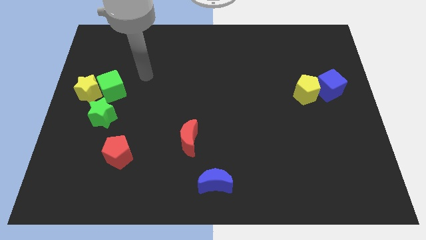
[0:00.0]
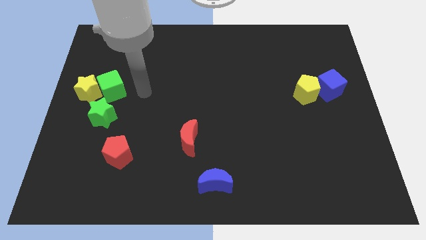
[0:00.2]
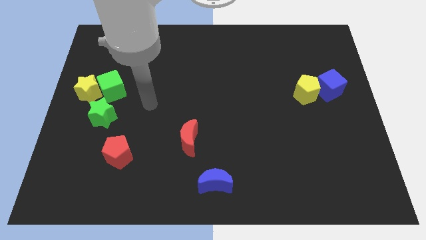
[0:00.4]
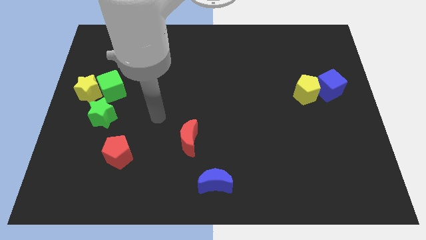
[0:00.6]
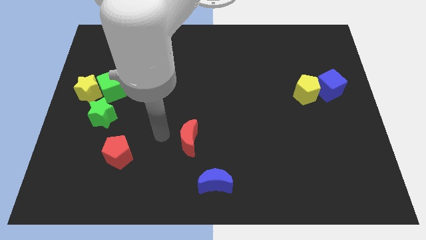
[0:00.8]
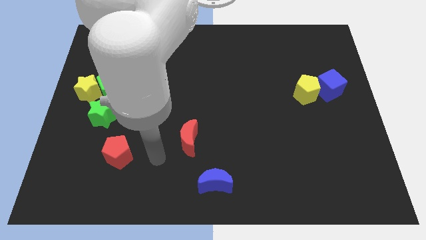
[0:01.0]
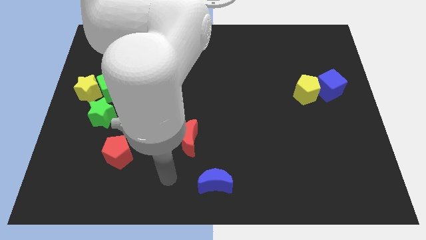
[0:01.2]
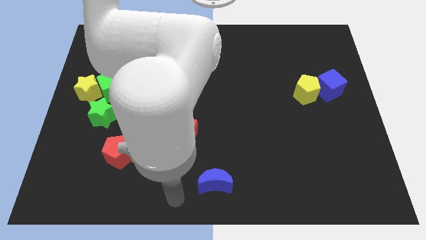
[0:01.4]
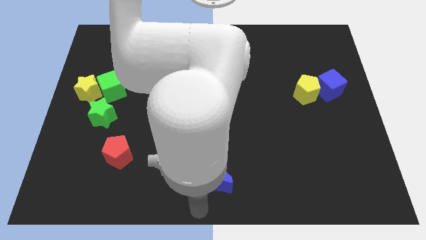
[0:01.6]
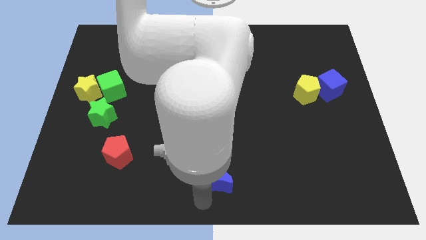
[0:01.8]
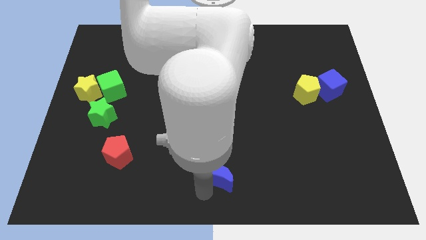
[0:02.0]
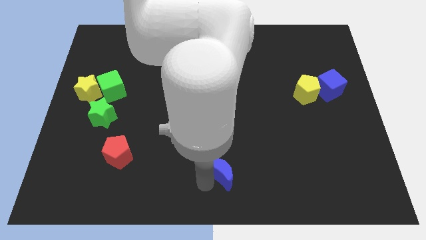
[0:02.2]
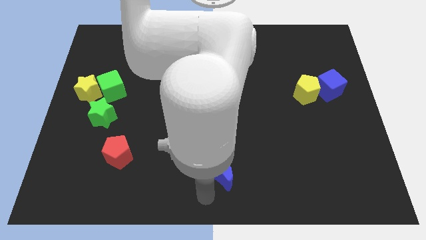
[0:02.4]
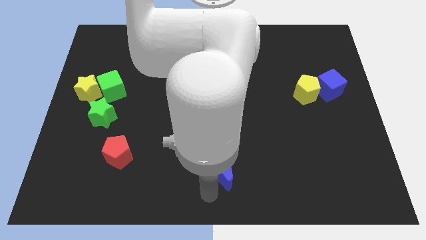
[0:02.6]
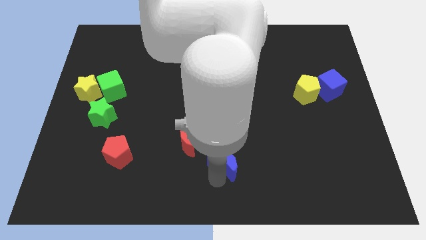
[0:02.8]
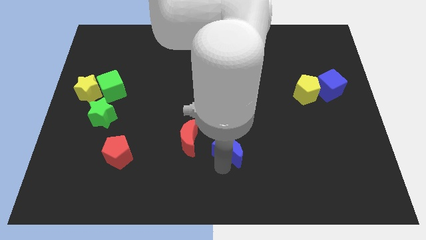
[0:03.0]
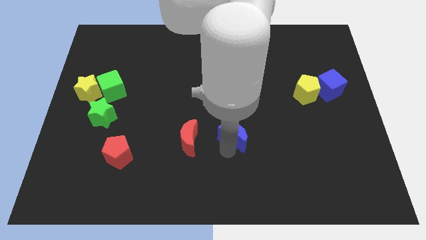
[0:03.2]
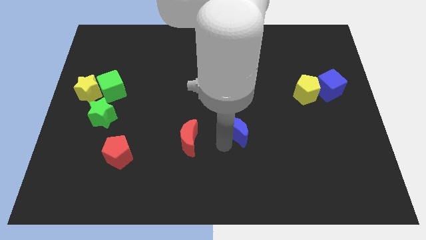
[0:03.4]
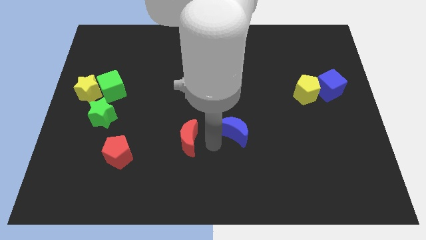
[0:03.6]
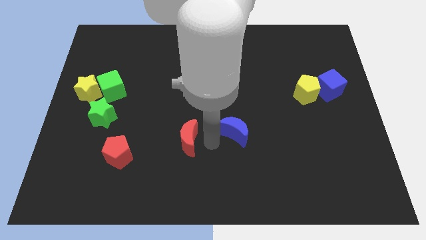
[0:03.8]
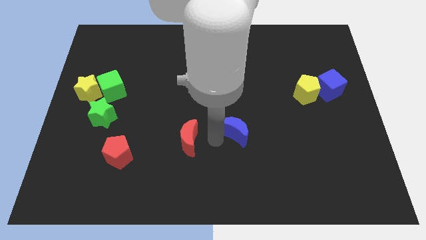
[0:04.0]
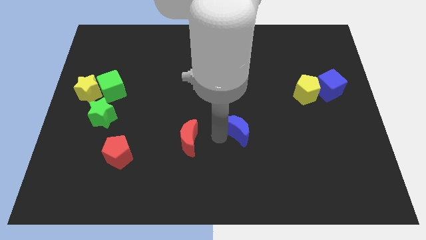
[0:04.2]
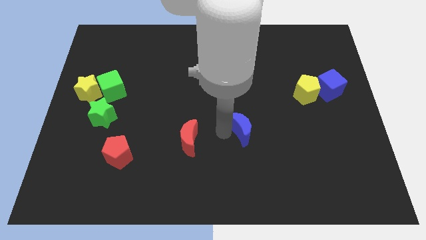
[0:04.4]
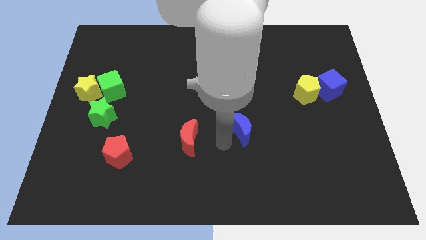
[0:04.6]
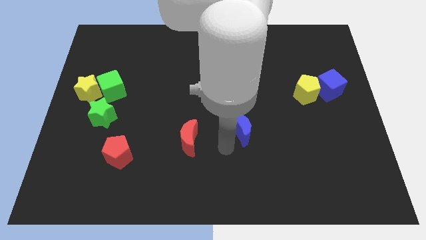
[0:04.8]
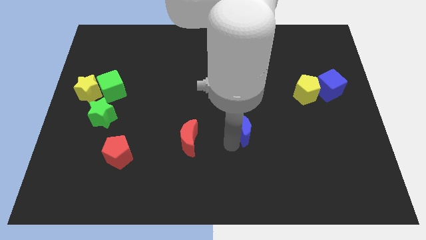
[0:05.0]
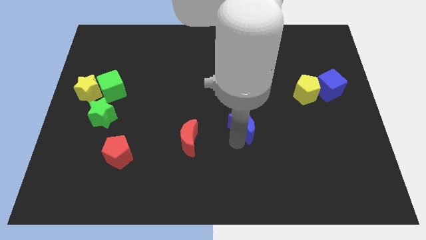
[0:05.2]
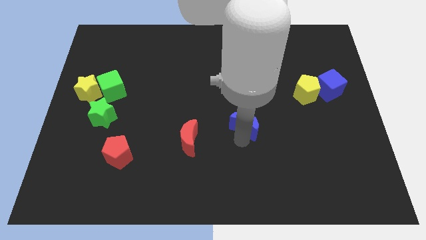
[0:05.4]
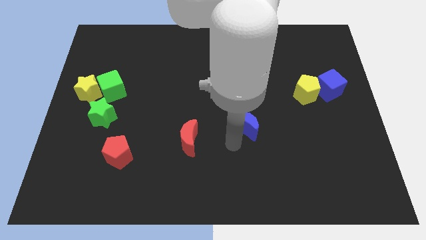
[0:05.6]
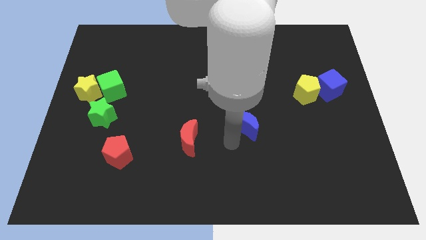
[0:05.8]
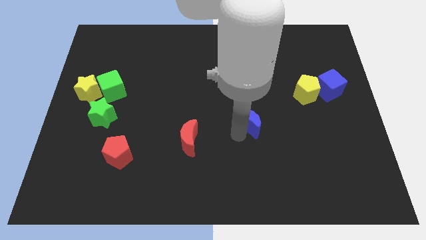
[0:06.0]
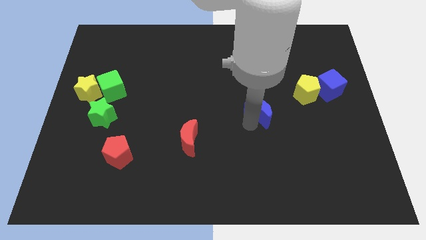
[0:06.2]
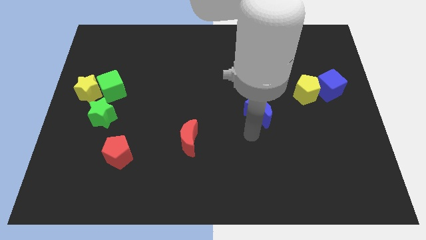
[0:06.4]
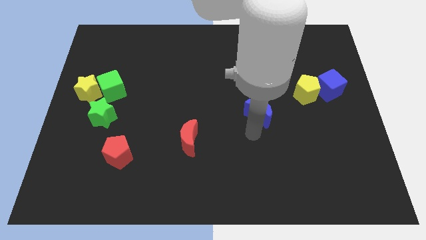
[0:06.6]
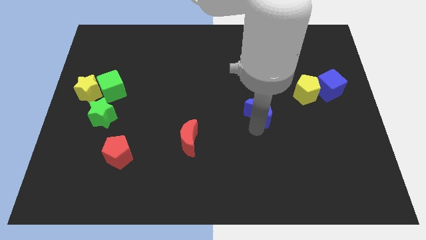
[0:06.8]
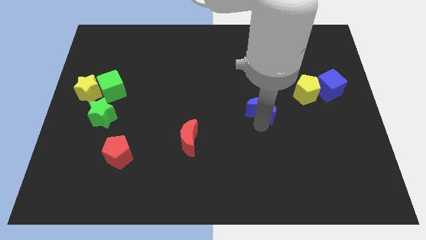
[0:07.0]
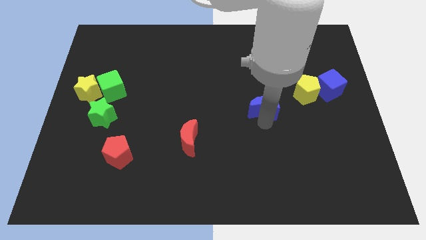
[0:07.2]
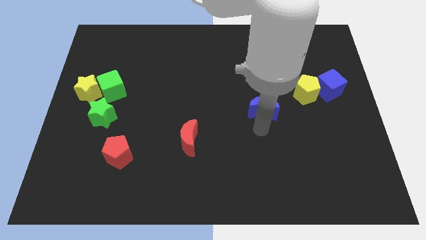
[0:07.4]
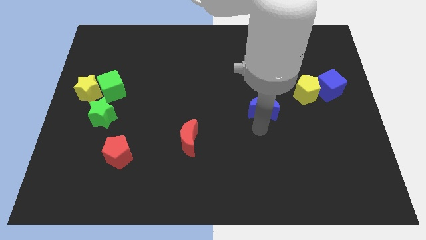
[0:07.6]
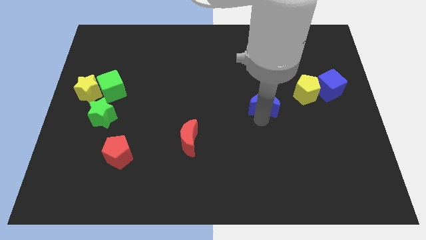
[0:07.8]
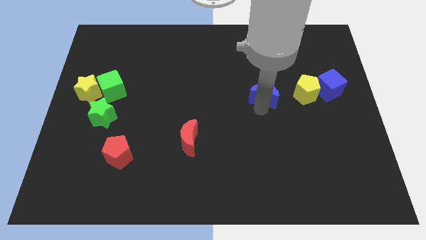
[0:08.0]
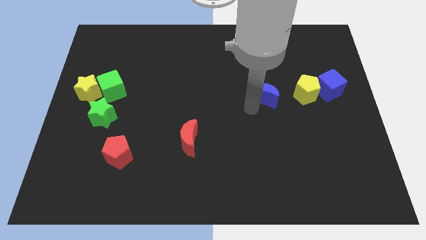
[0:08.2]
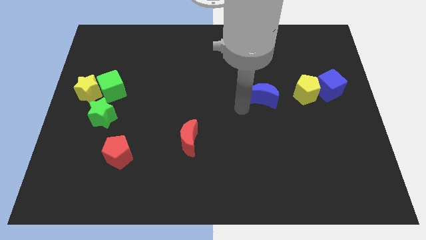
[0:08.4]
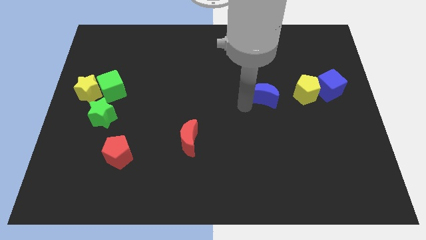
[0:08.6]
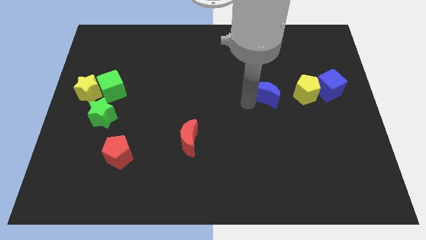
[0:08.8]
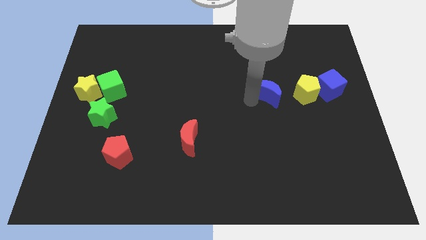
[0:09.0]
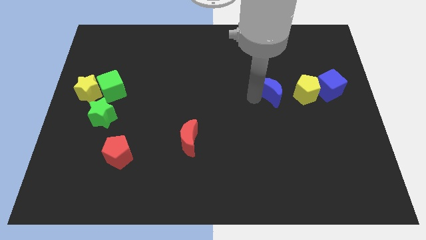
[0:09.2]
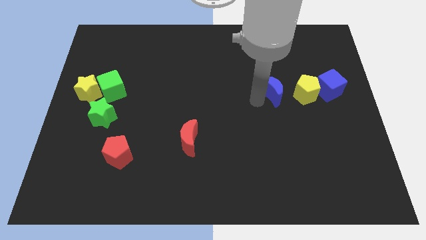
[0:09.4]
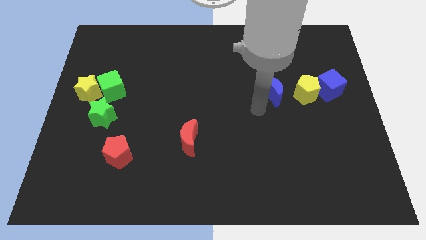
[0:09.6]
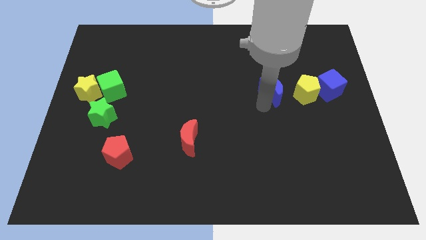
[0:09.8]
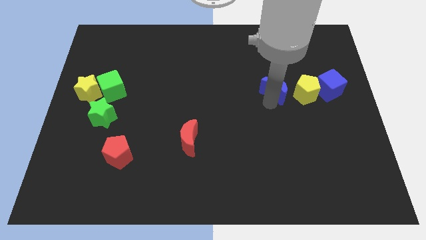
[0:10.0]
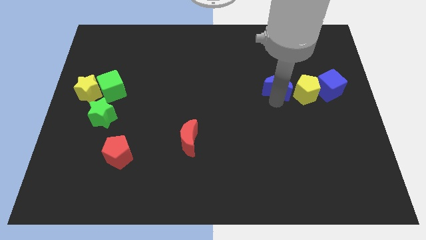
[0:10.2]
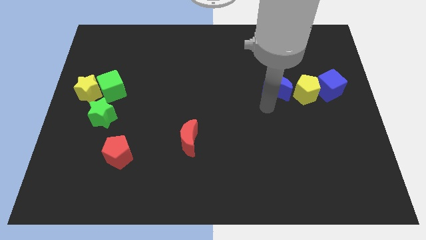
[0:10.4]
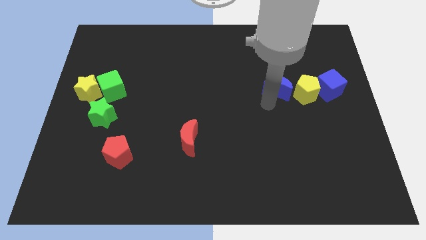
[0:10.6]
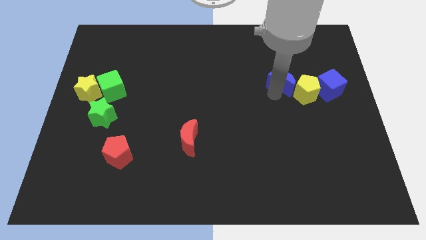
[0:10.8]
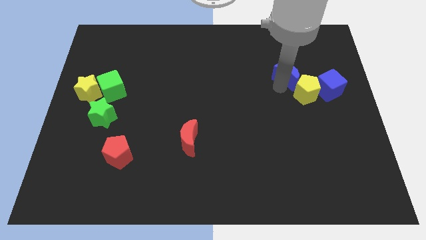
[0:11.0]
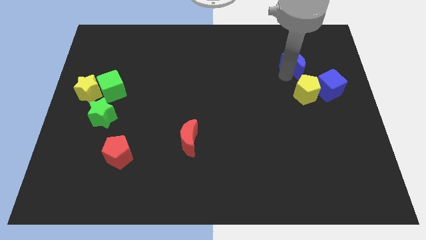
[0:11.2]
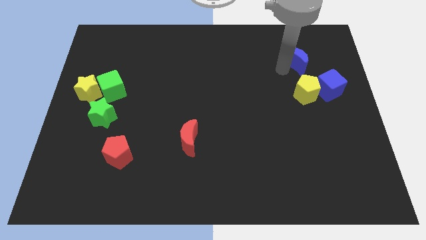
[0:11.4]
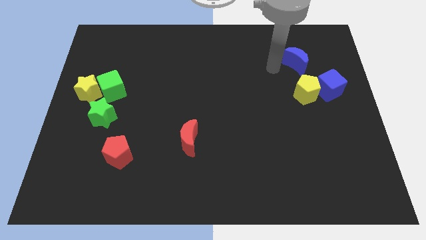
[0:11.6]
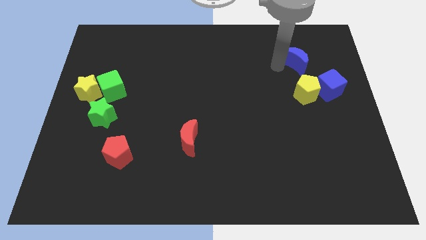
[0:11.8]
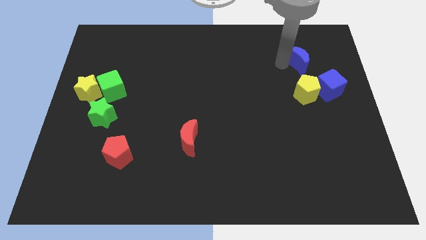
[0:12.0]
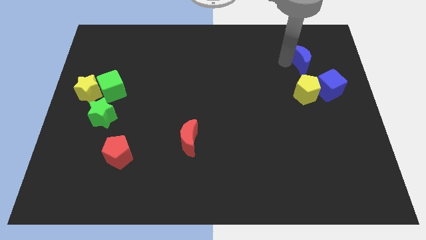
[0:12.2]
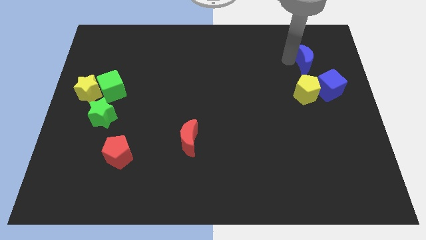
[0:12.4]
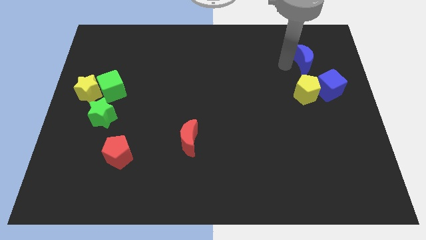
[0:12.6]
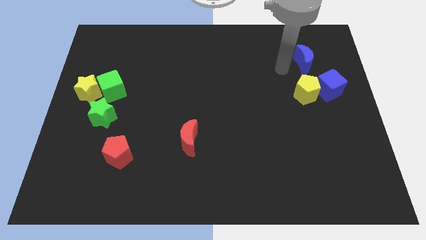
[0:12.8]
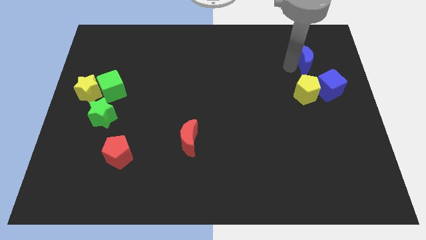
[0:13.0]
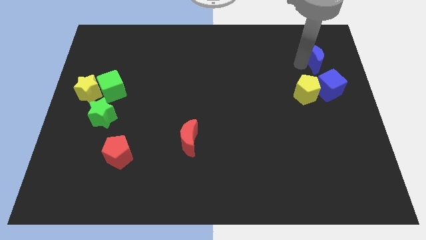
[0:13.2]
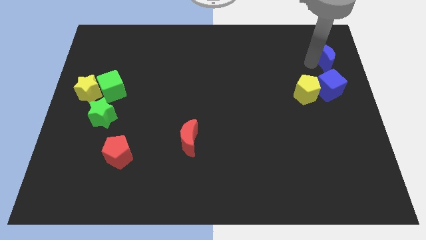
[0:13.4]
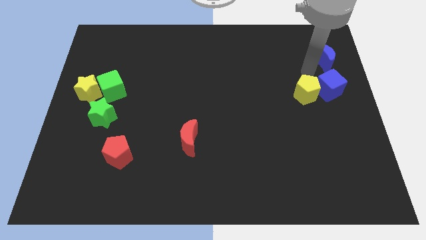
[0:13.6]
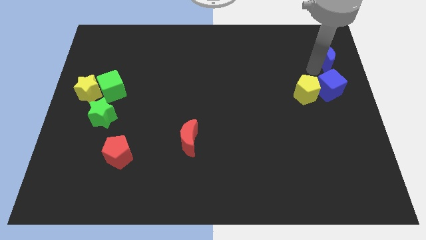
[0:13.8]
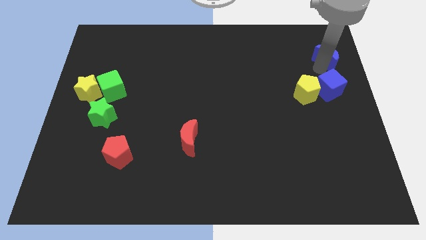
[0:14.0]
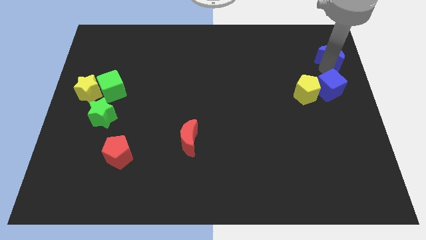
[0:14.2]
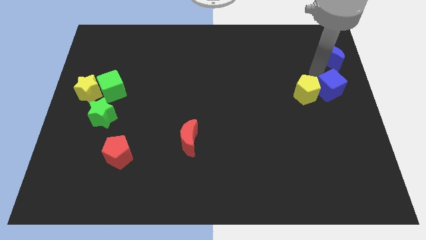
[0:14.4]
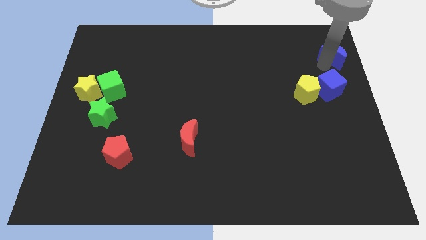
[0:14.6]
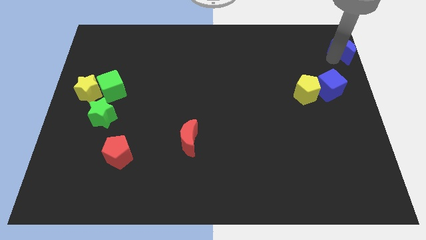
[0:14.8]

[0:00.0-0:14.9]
put the blue moon to the top right of the board
